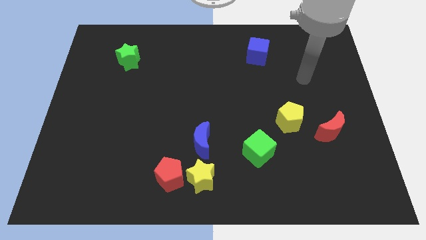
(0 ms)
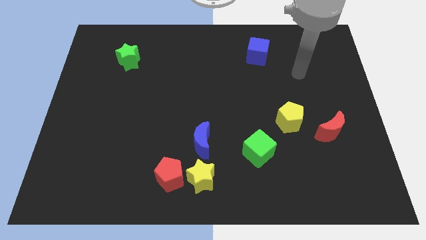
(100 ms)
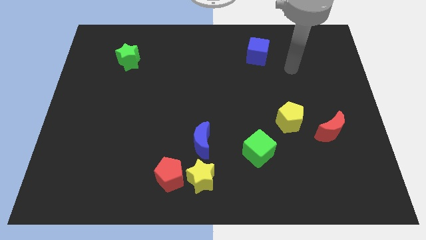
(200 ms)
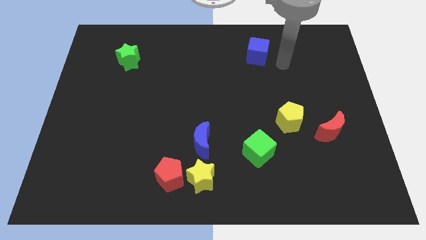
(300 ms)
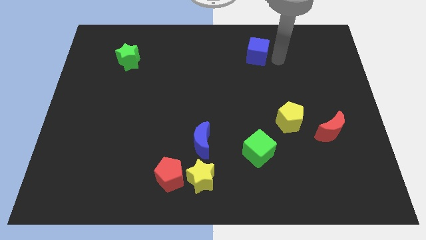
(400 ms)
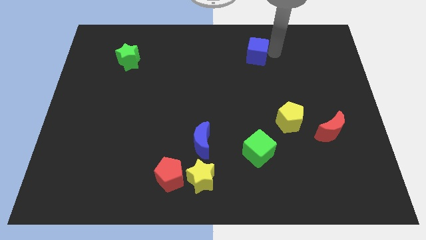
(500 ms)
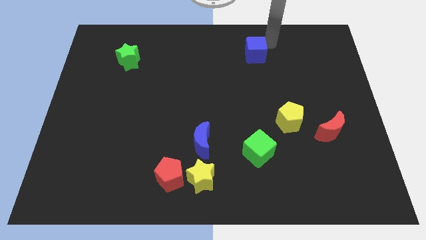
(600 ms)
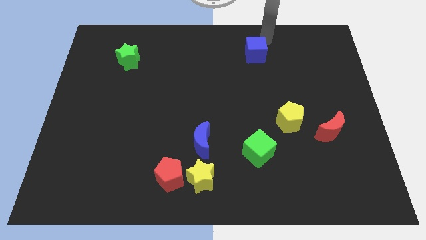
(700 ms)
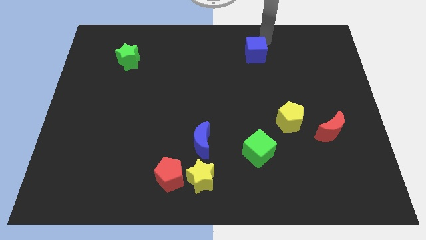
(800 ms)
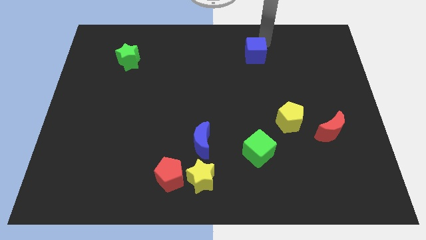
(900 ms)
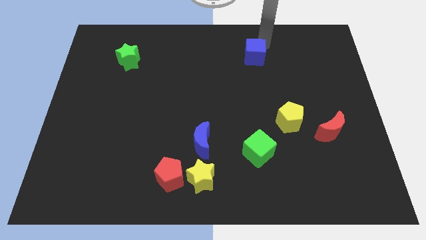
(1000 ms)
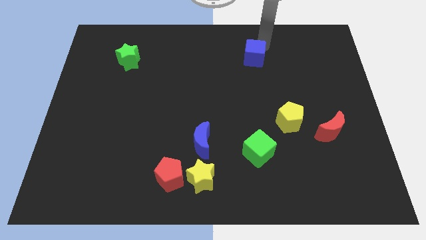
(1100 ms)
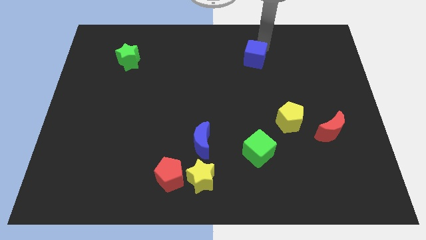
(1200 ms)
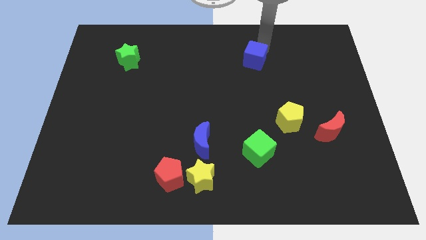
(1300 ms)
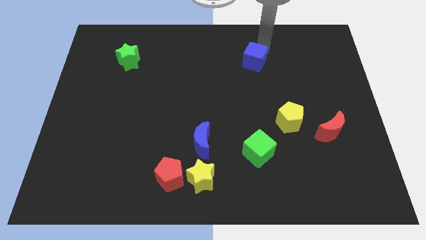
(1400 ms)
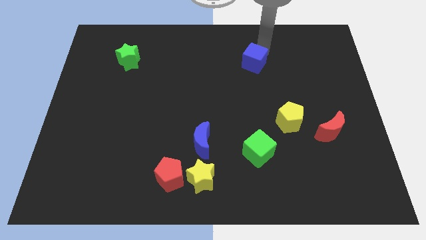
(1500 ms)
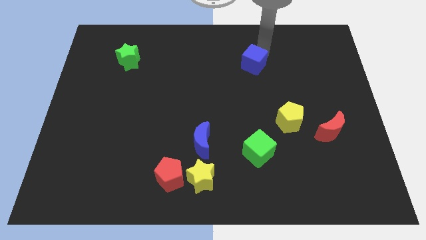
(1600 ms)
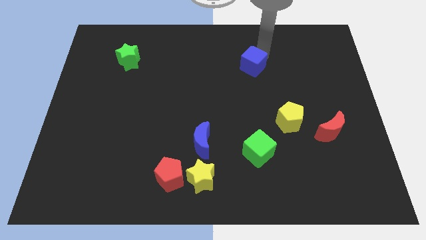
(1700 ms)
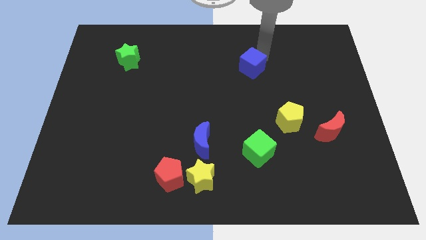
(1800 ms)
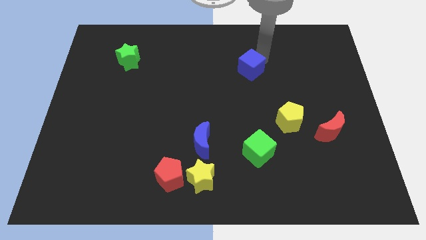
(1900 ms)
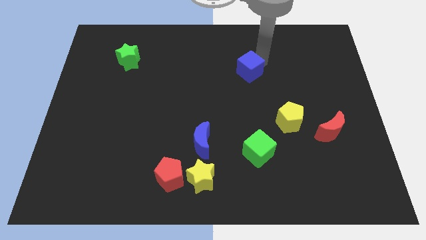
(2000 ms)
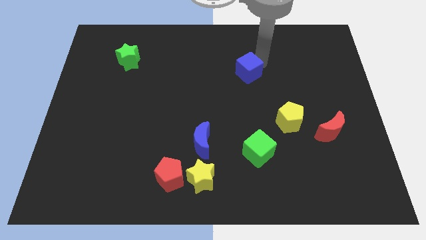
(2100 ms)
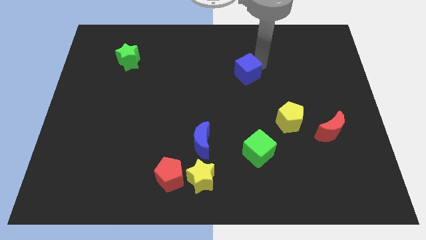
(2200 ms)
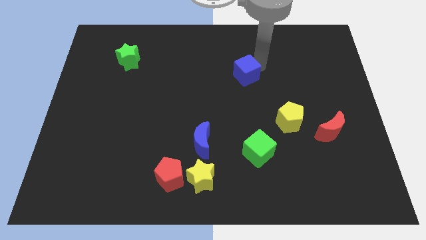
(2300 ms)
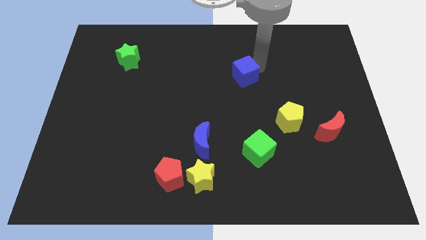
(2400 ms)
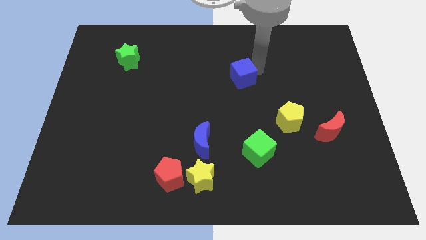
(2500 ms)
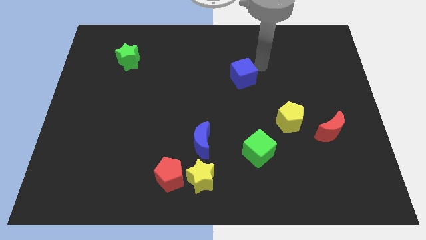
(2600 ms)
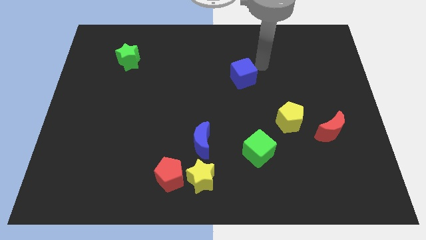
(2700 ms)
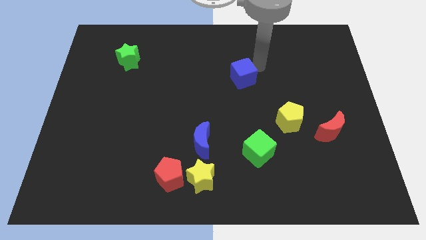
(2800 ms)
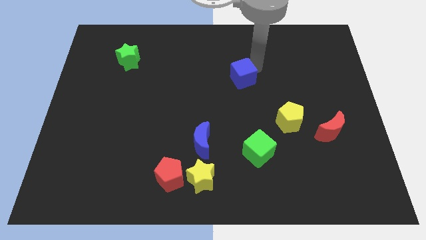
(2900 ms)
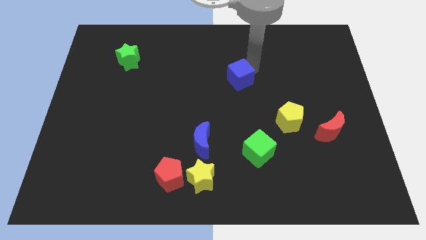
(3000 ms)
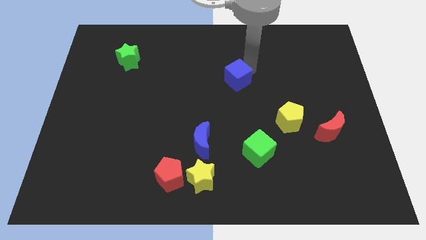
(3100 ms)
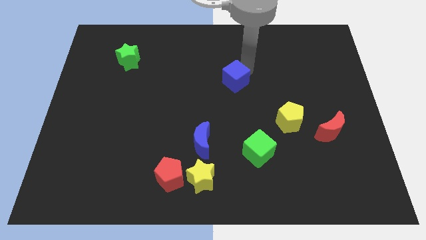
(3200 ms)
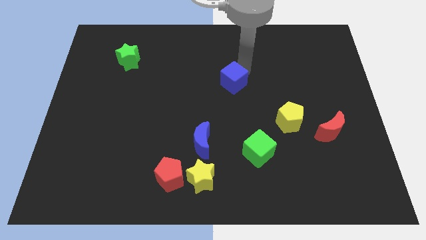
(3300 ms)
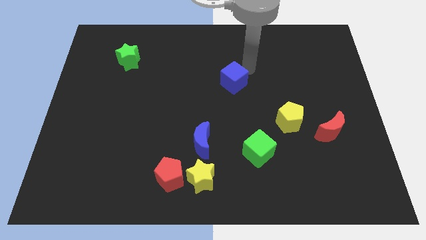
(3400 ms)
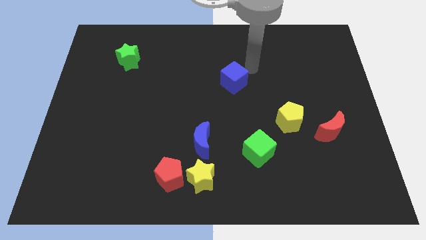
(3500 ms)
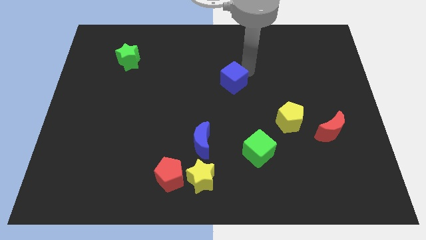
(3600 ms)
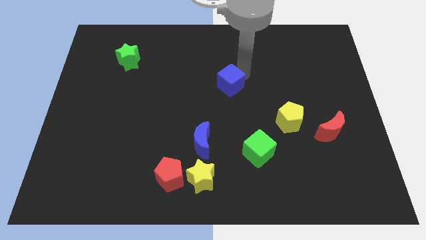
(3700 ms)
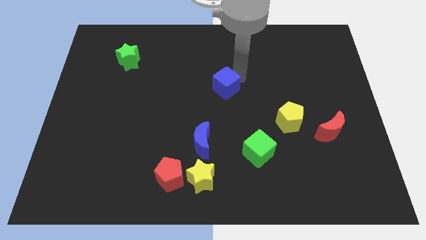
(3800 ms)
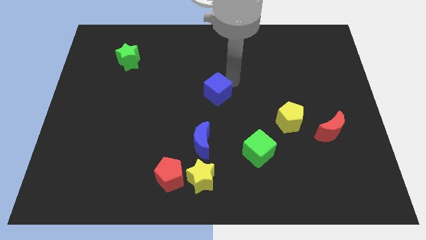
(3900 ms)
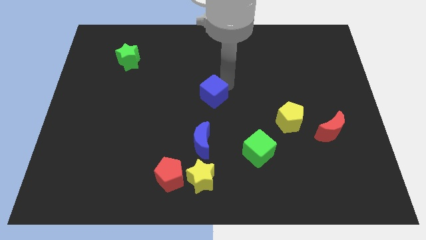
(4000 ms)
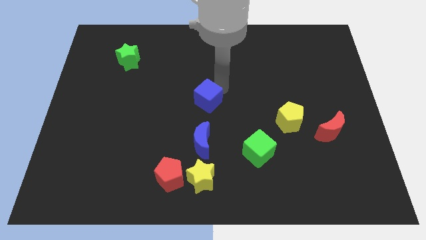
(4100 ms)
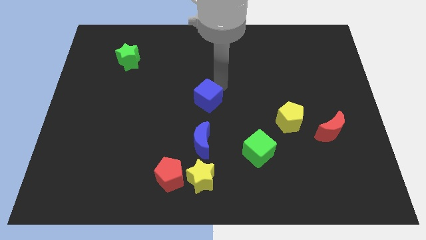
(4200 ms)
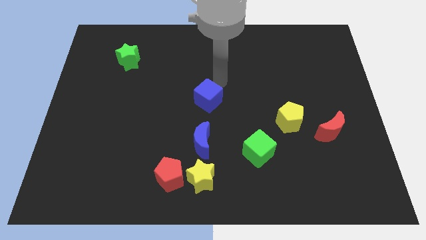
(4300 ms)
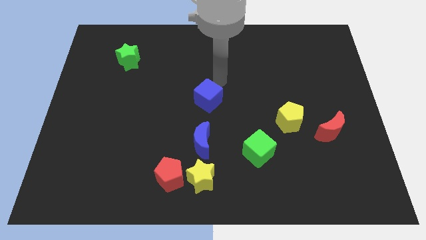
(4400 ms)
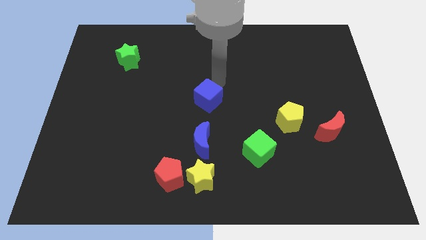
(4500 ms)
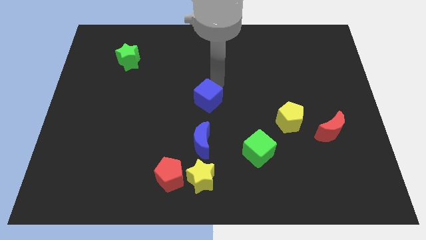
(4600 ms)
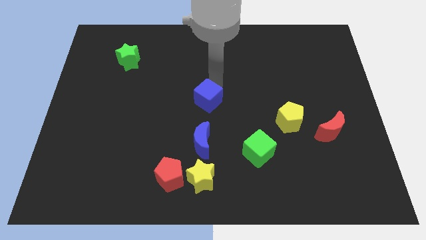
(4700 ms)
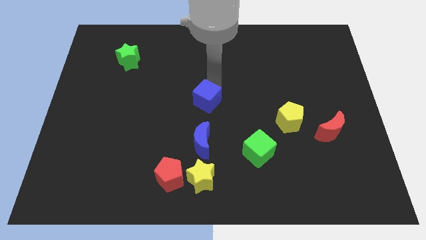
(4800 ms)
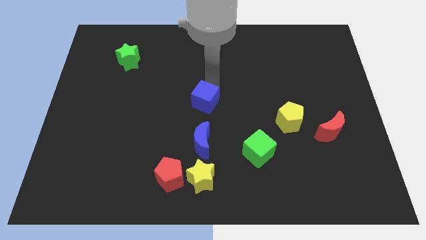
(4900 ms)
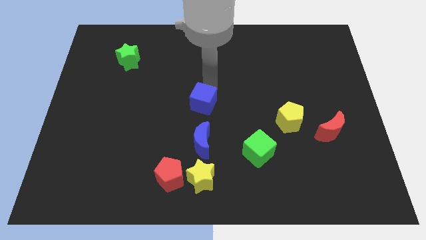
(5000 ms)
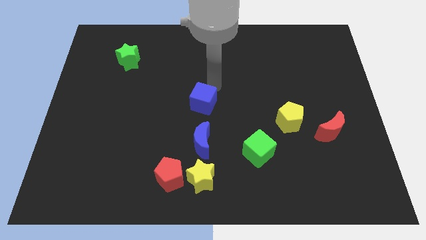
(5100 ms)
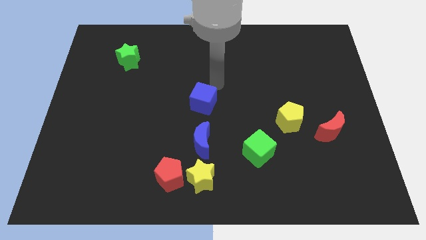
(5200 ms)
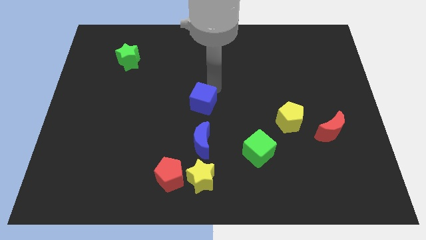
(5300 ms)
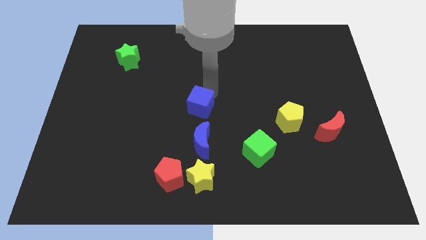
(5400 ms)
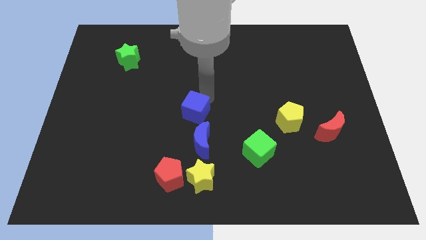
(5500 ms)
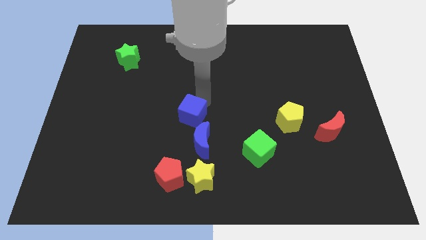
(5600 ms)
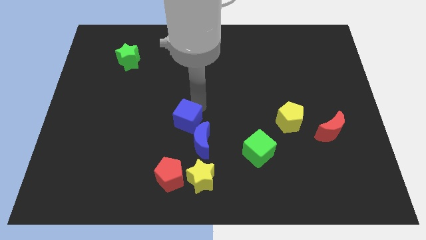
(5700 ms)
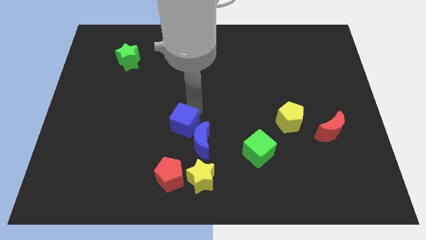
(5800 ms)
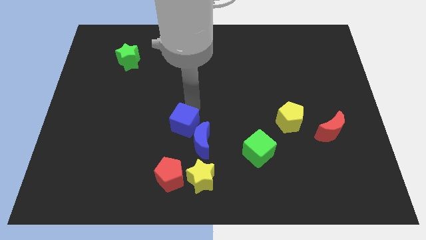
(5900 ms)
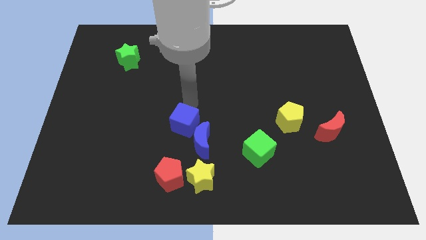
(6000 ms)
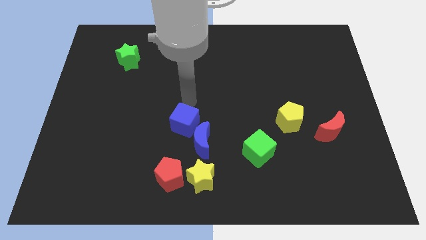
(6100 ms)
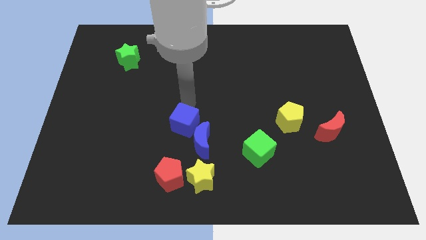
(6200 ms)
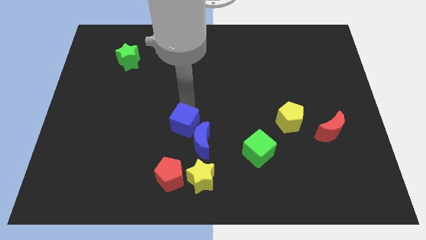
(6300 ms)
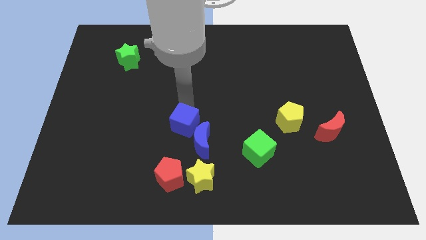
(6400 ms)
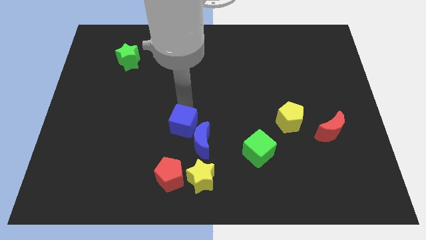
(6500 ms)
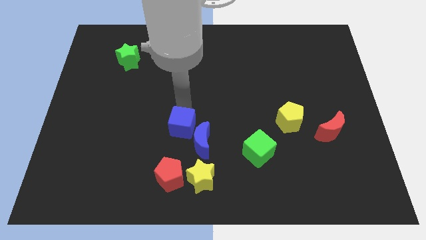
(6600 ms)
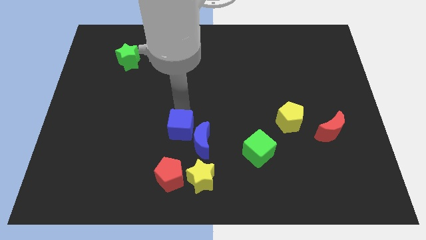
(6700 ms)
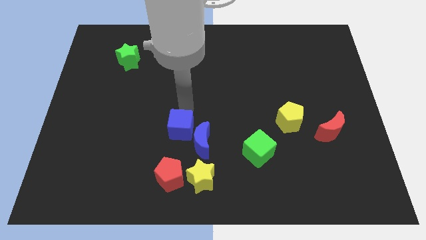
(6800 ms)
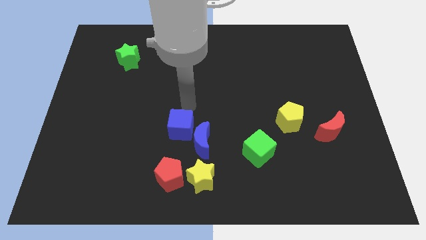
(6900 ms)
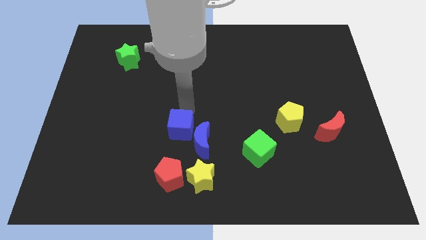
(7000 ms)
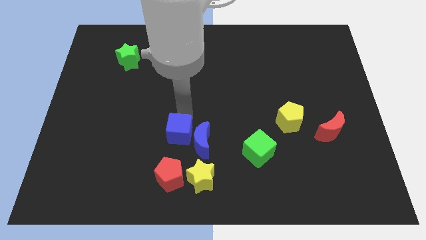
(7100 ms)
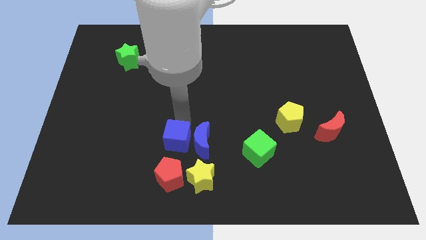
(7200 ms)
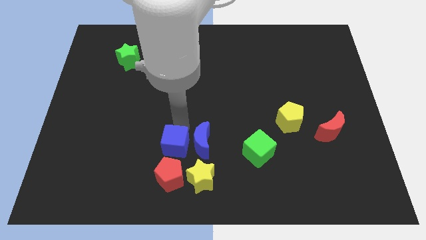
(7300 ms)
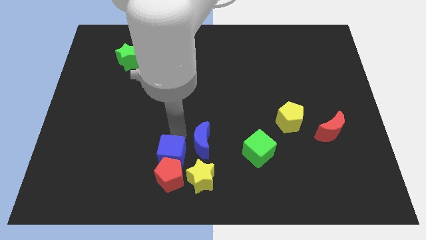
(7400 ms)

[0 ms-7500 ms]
push the blue cube next to the red pentagon
